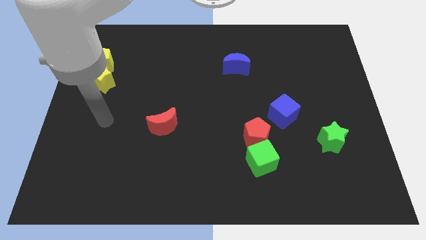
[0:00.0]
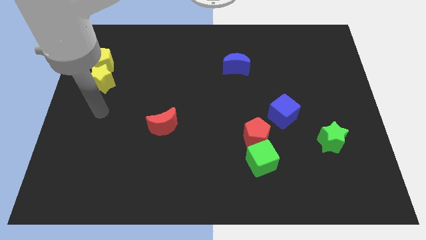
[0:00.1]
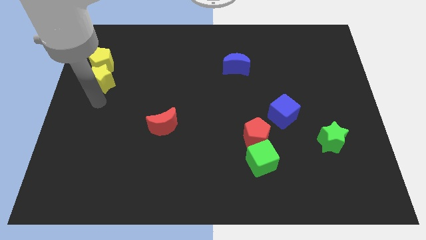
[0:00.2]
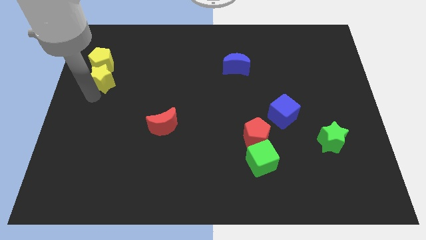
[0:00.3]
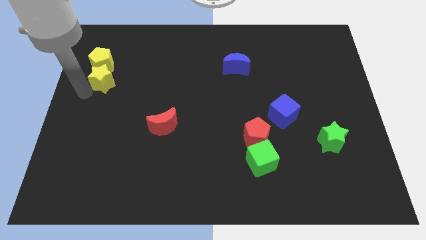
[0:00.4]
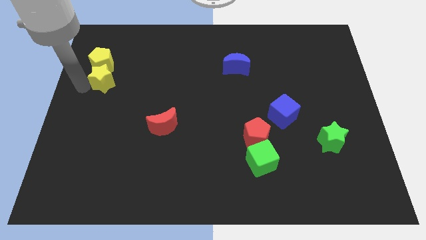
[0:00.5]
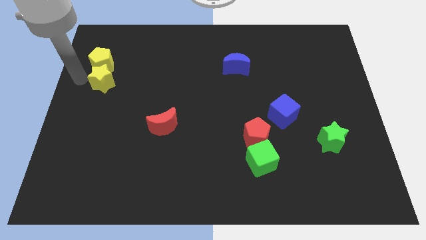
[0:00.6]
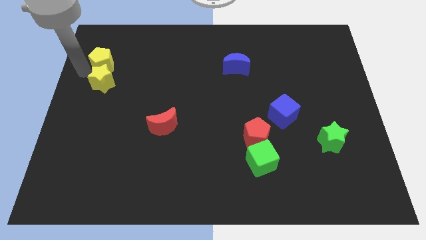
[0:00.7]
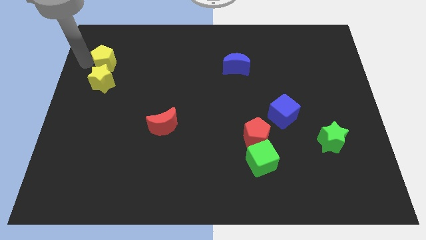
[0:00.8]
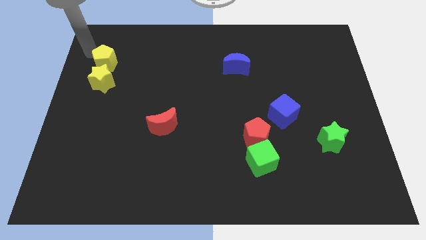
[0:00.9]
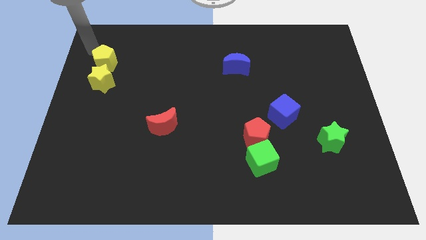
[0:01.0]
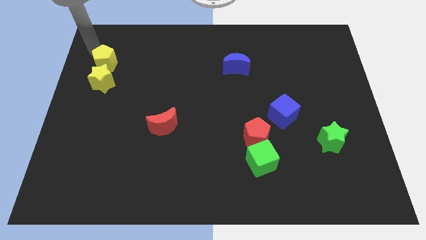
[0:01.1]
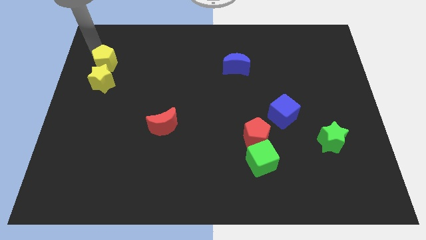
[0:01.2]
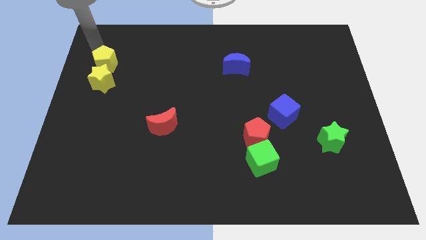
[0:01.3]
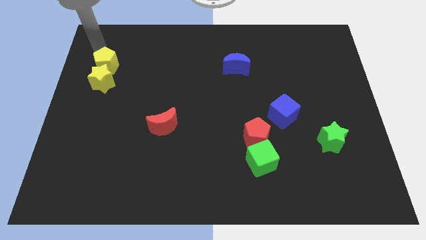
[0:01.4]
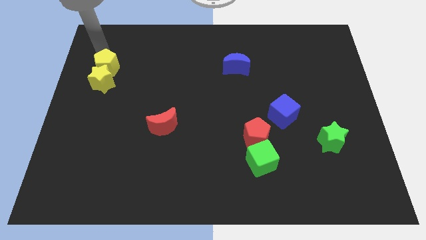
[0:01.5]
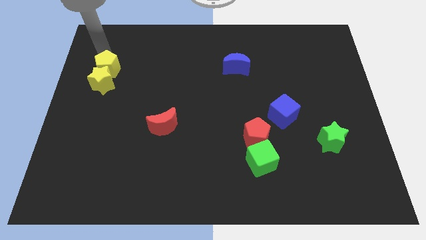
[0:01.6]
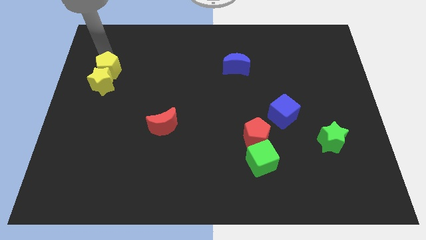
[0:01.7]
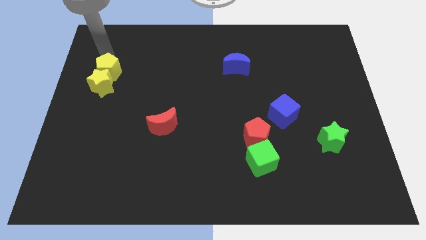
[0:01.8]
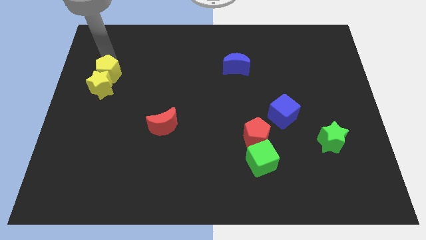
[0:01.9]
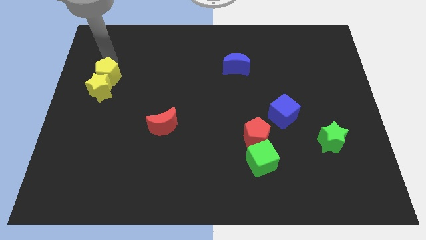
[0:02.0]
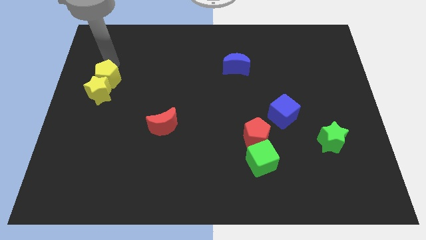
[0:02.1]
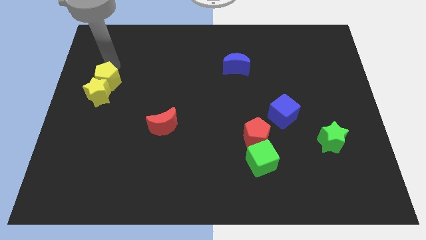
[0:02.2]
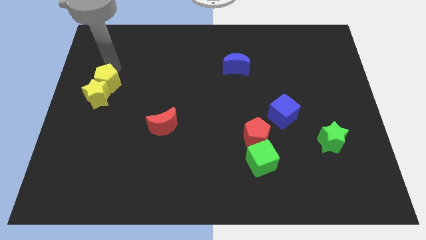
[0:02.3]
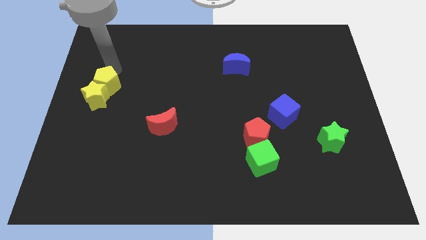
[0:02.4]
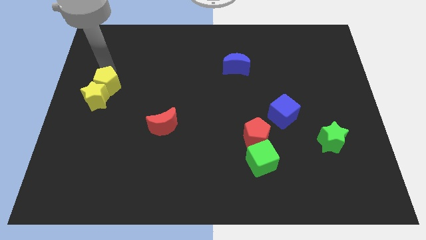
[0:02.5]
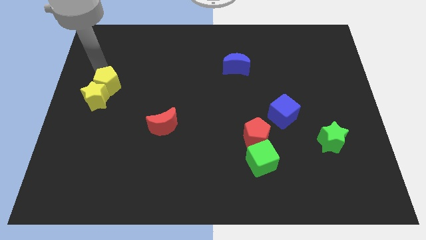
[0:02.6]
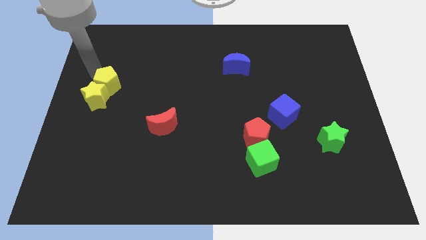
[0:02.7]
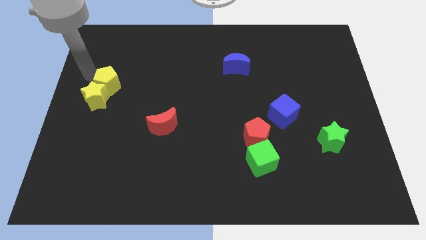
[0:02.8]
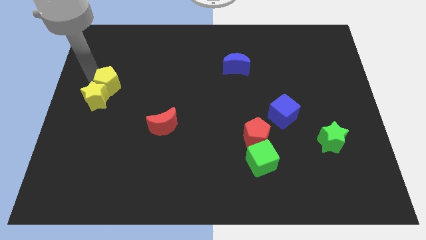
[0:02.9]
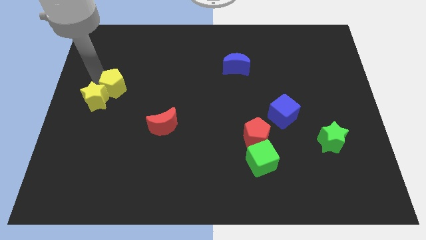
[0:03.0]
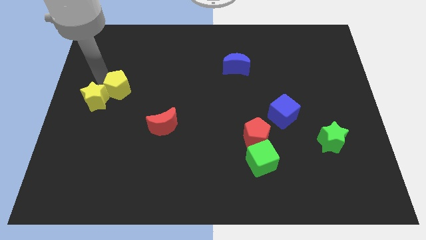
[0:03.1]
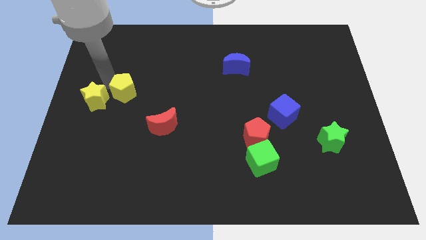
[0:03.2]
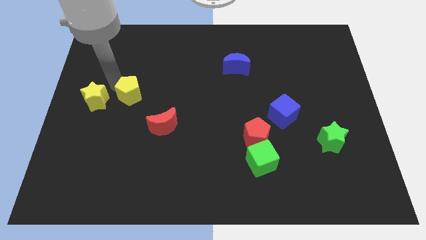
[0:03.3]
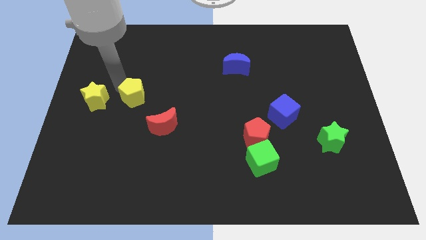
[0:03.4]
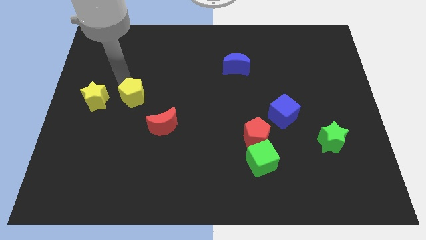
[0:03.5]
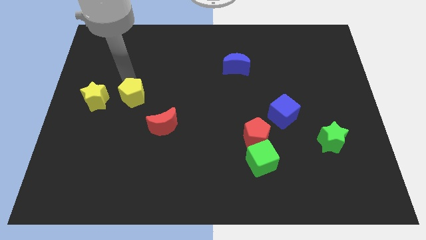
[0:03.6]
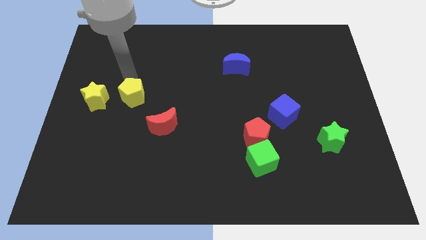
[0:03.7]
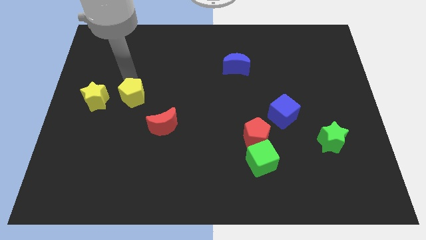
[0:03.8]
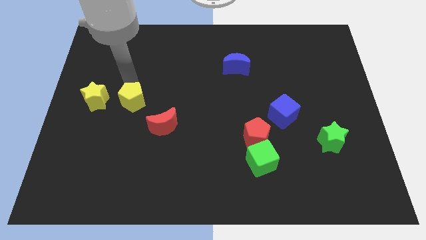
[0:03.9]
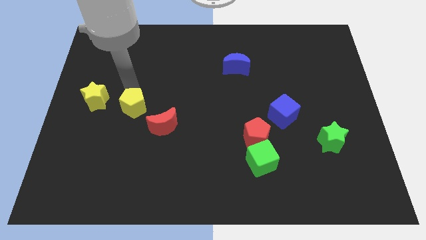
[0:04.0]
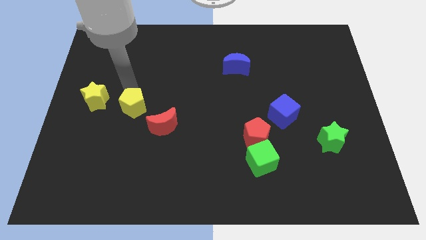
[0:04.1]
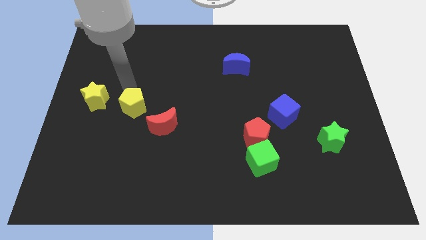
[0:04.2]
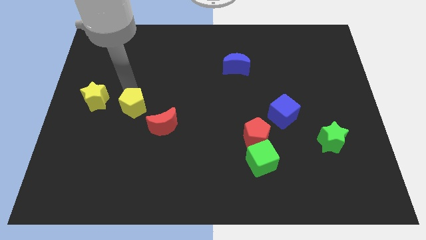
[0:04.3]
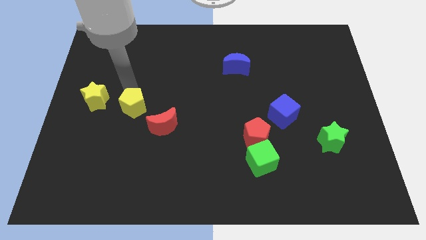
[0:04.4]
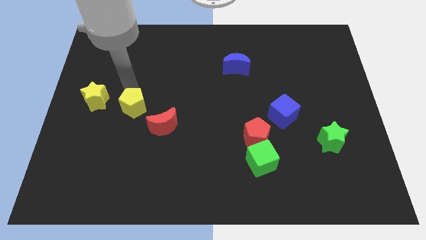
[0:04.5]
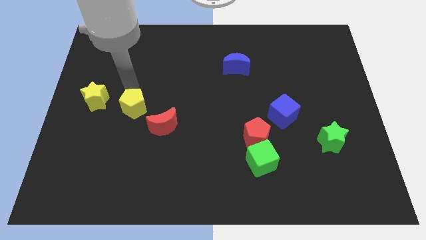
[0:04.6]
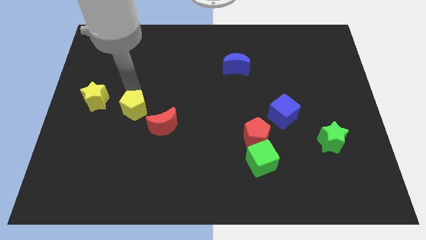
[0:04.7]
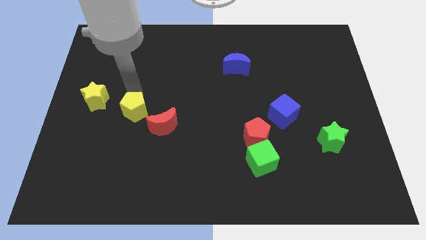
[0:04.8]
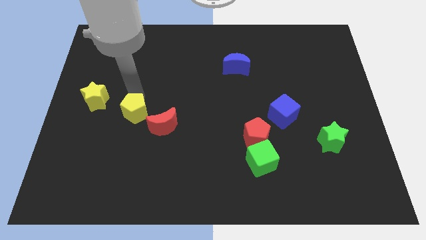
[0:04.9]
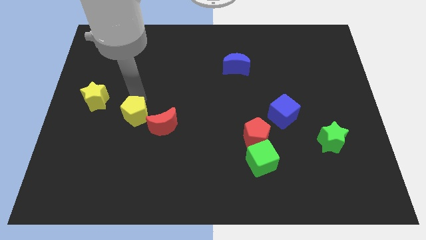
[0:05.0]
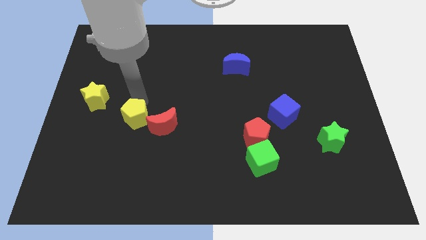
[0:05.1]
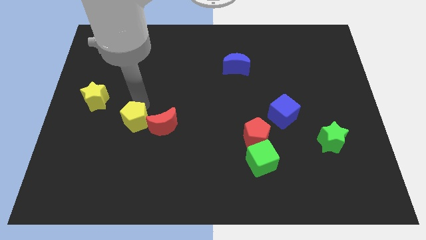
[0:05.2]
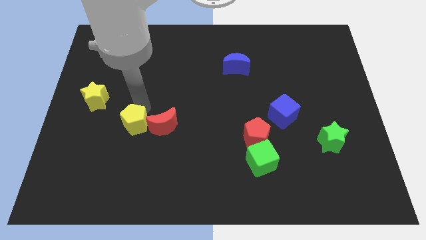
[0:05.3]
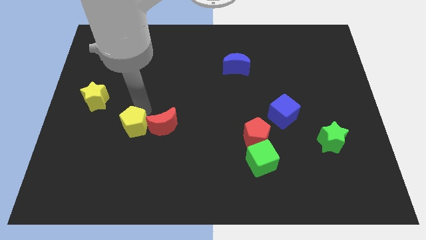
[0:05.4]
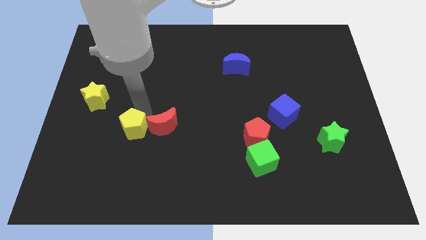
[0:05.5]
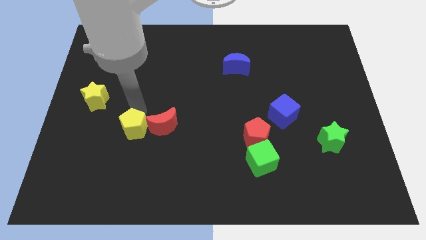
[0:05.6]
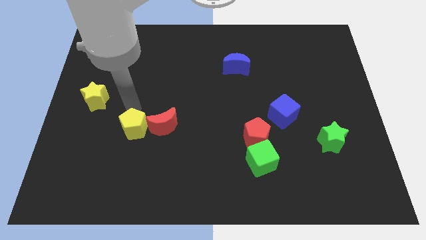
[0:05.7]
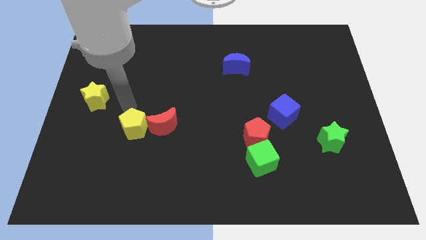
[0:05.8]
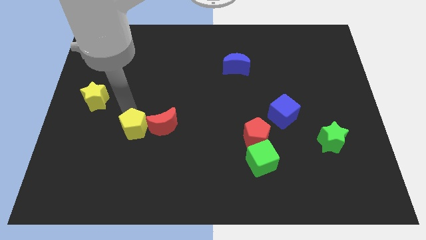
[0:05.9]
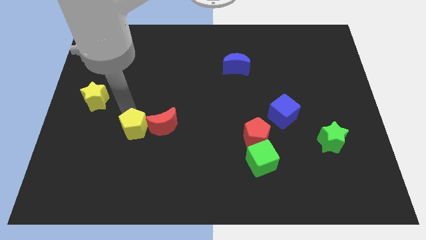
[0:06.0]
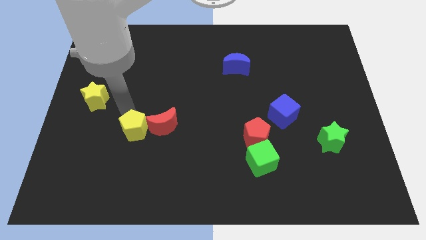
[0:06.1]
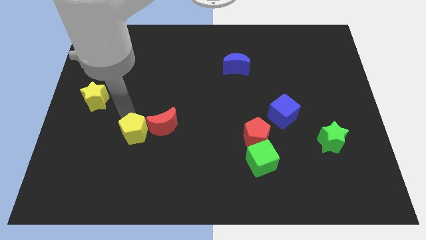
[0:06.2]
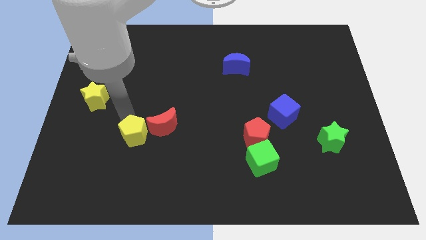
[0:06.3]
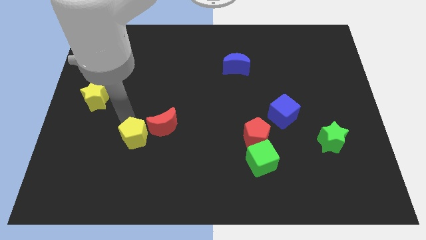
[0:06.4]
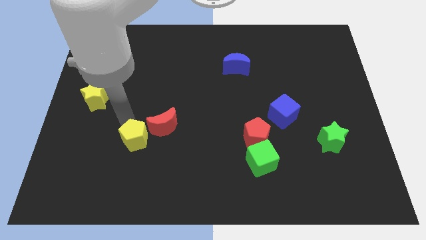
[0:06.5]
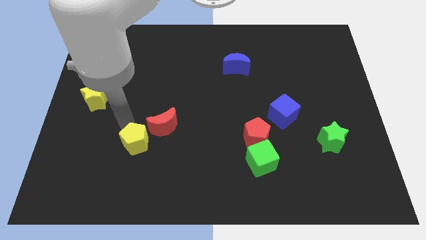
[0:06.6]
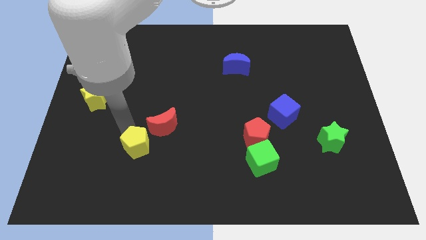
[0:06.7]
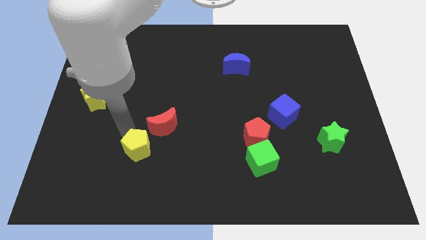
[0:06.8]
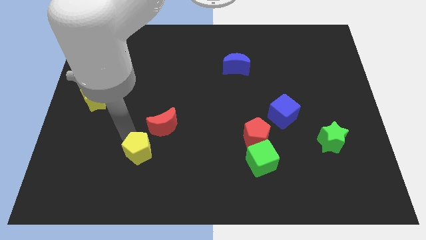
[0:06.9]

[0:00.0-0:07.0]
move the yellow pentagon to the bottom side of the red moon

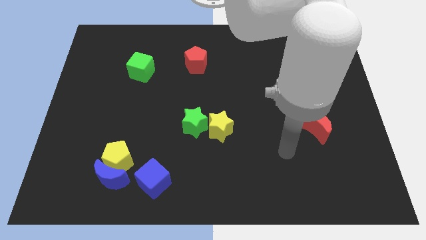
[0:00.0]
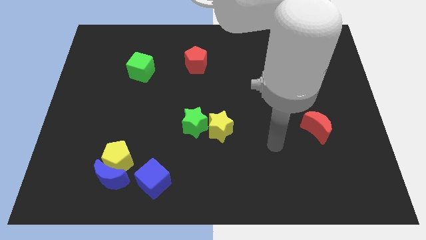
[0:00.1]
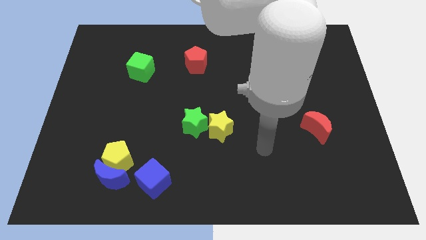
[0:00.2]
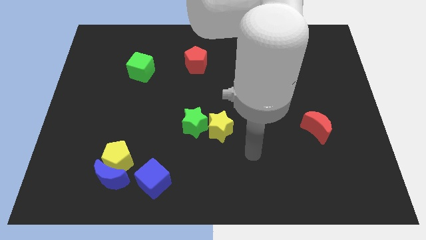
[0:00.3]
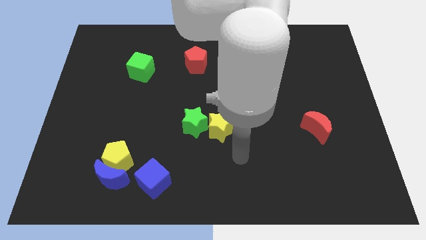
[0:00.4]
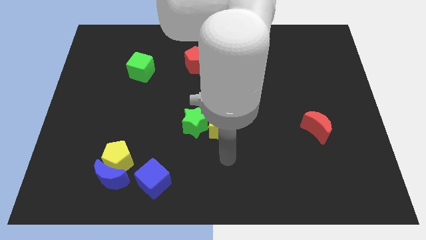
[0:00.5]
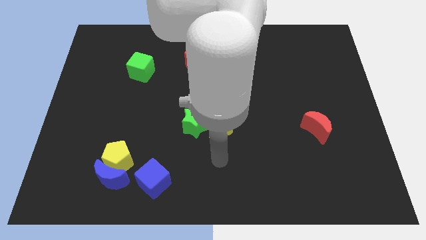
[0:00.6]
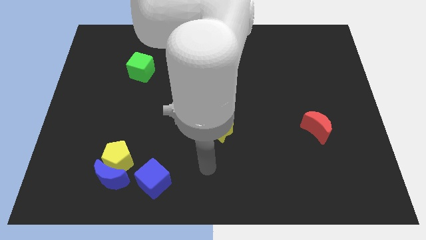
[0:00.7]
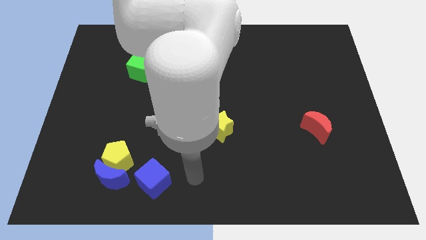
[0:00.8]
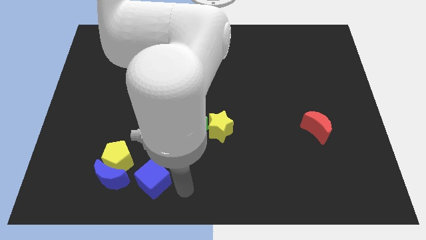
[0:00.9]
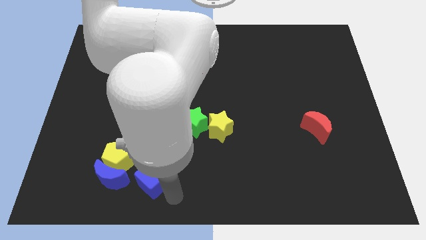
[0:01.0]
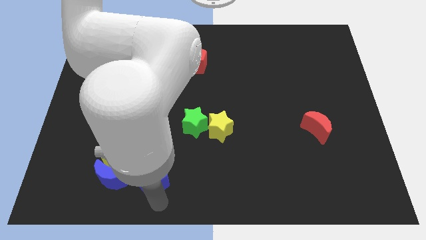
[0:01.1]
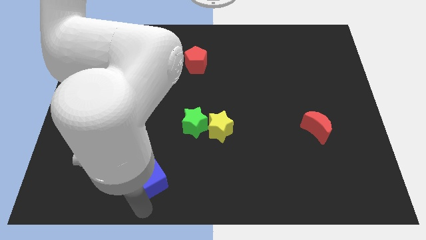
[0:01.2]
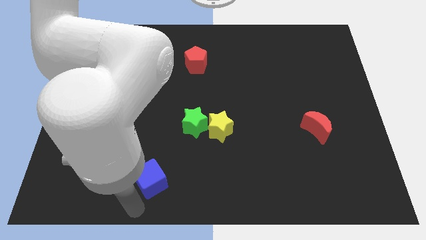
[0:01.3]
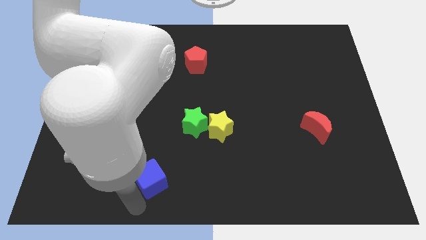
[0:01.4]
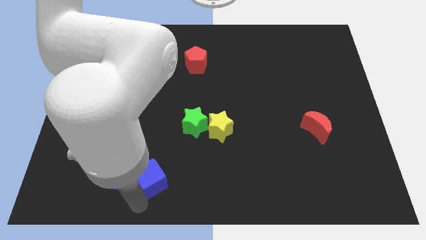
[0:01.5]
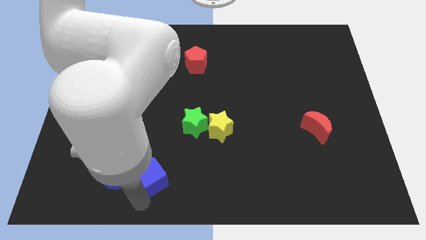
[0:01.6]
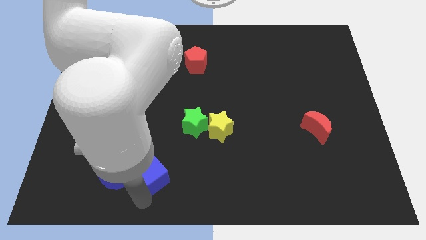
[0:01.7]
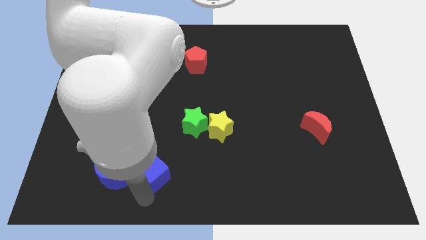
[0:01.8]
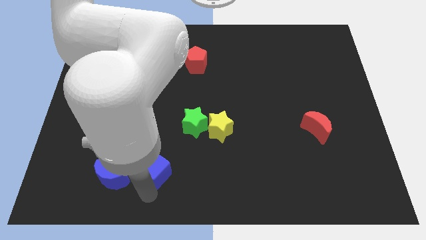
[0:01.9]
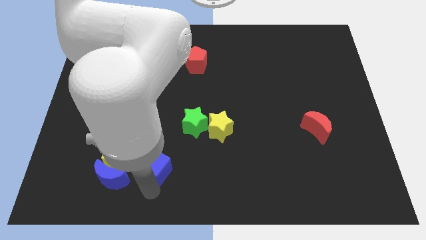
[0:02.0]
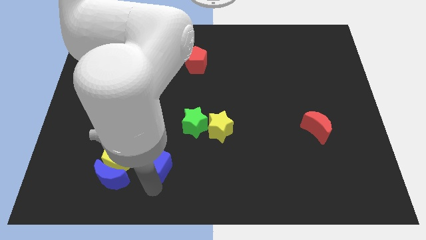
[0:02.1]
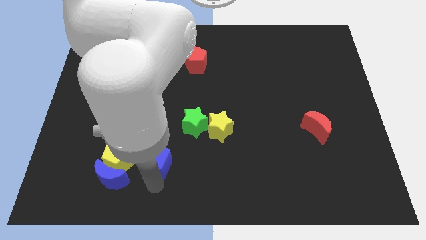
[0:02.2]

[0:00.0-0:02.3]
move the blue cube to the bottom left side of the green star
